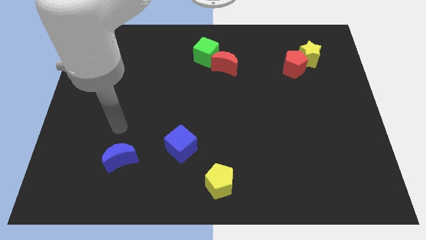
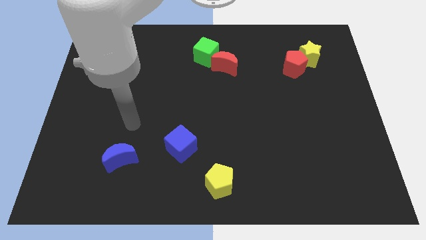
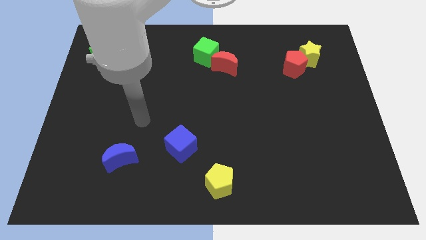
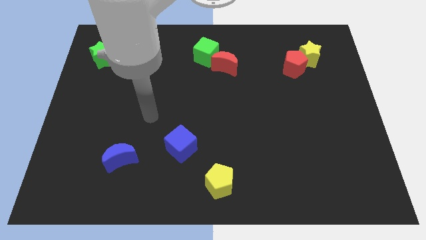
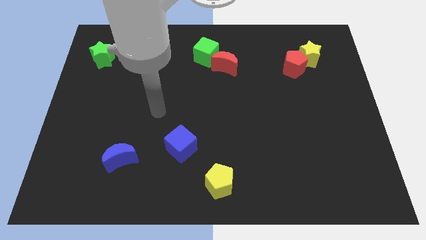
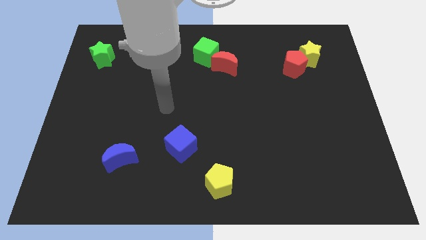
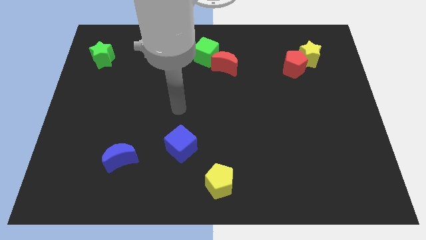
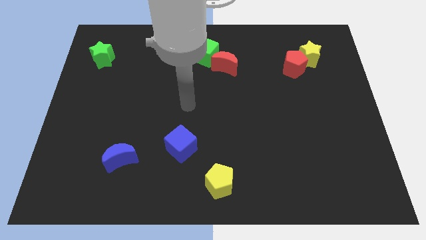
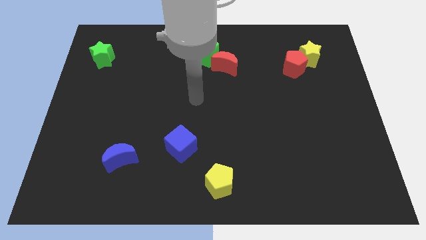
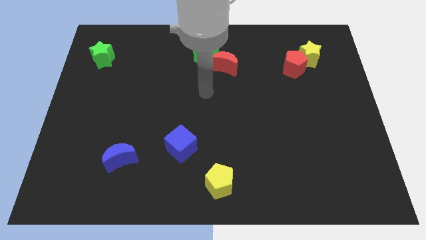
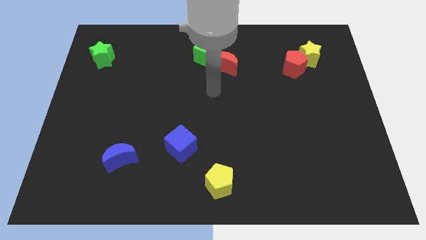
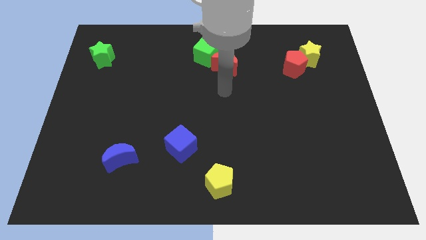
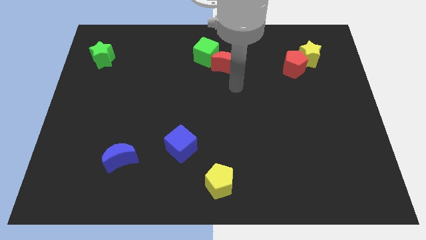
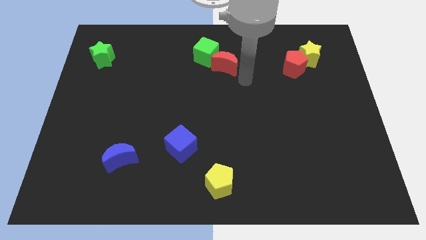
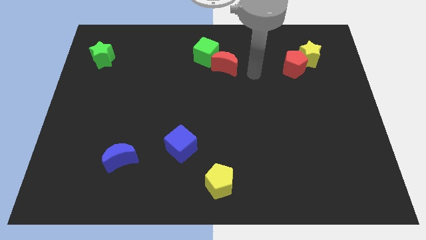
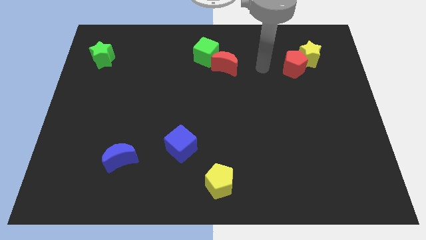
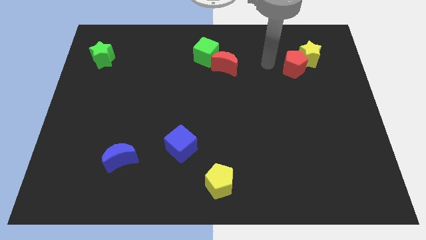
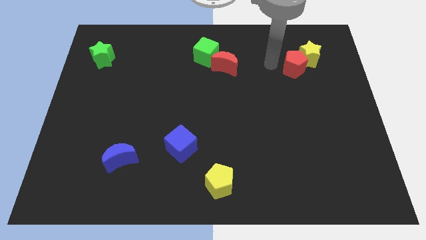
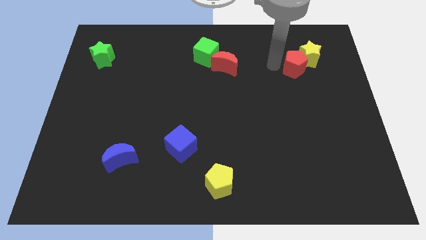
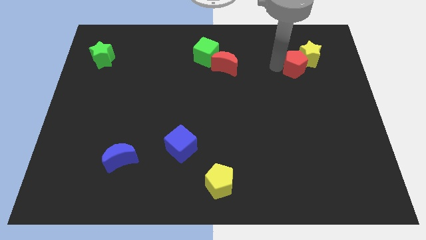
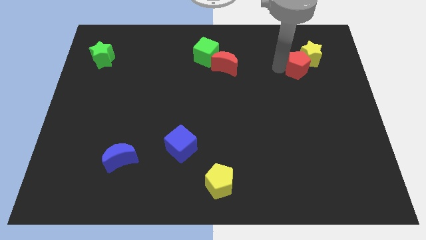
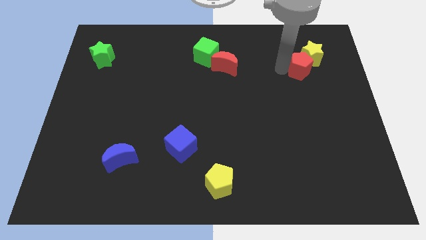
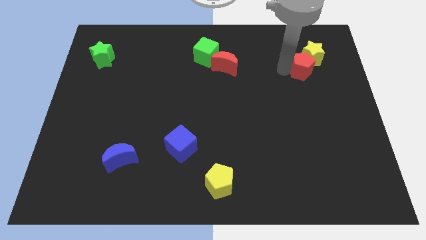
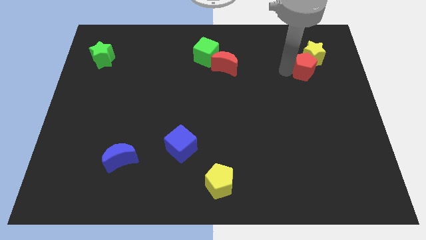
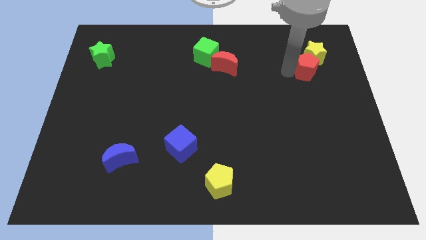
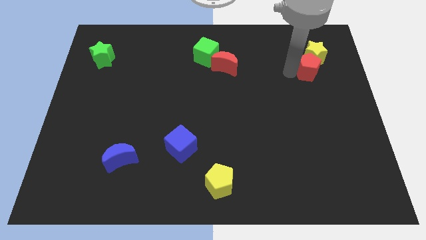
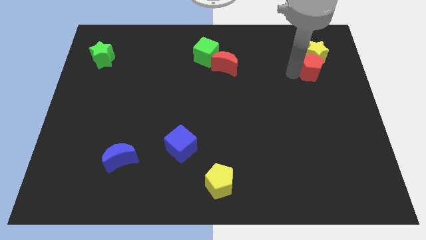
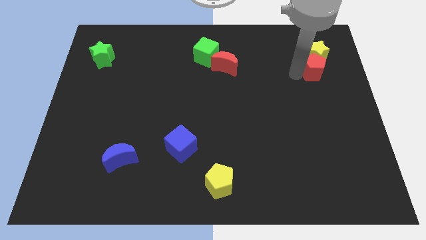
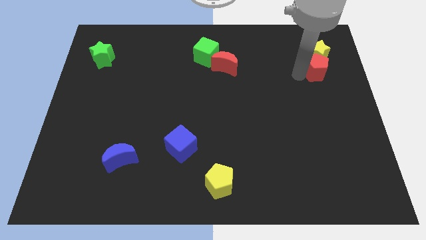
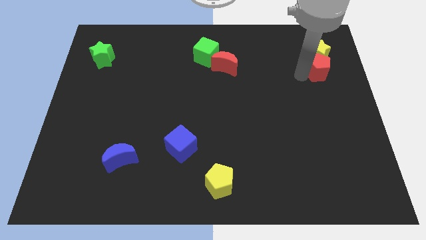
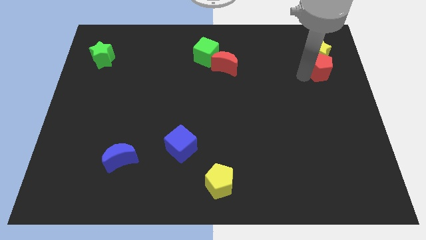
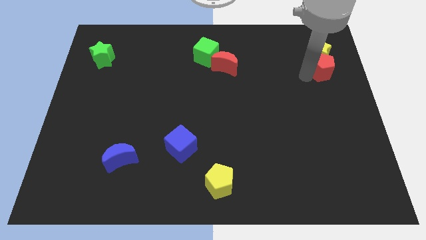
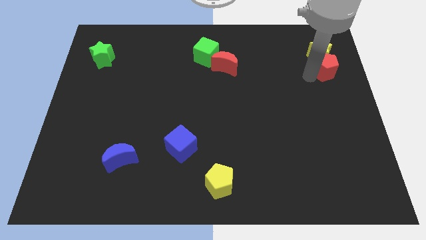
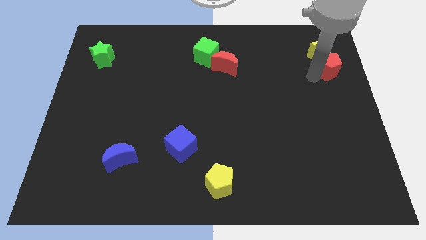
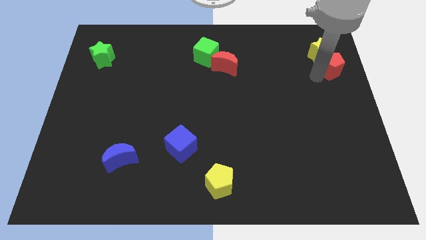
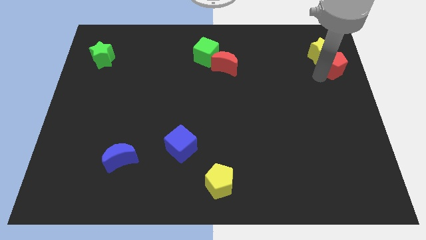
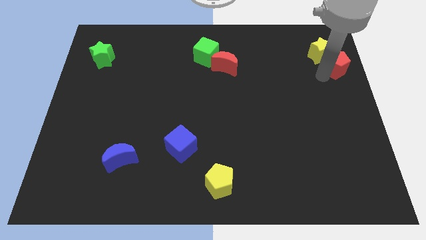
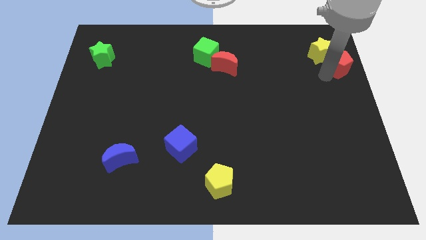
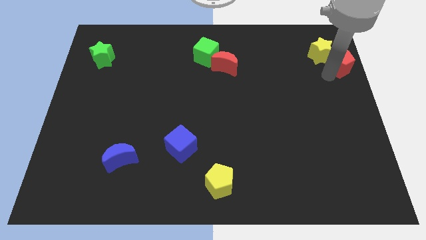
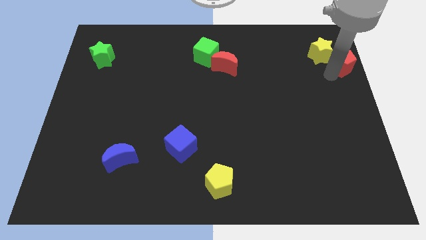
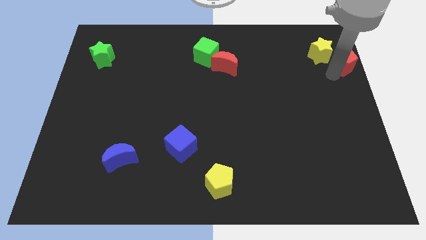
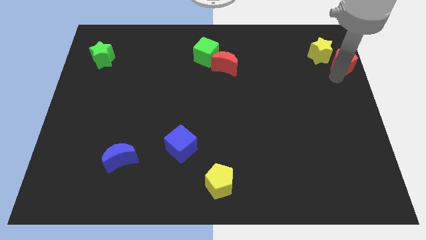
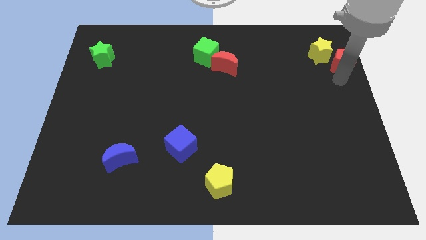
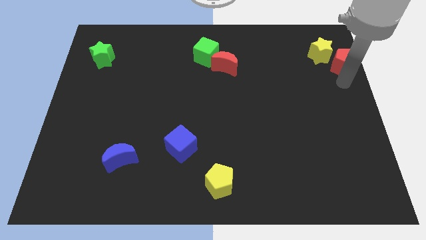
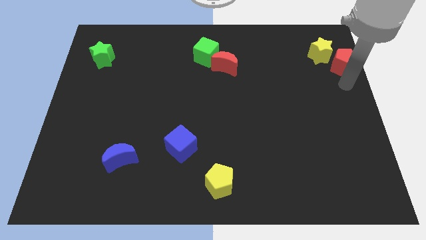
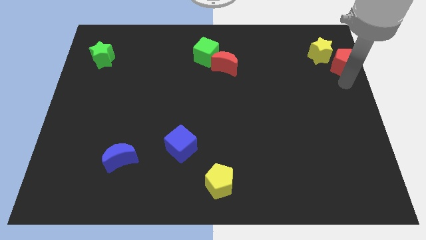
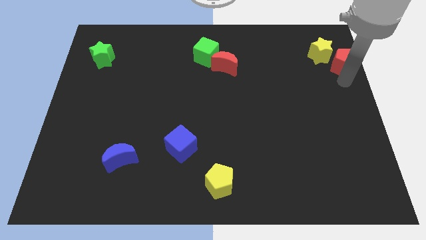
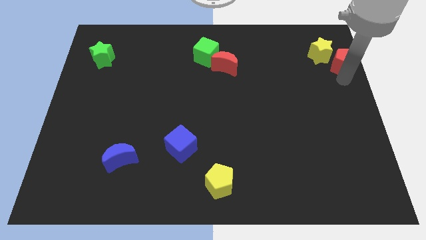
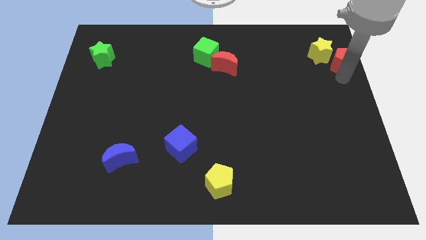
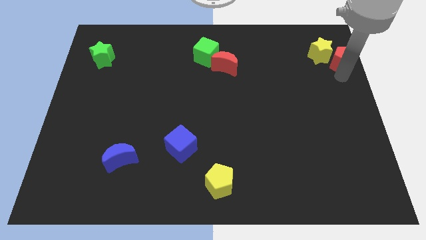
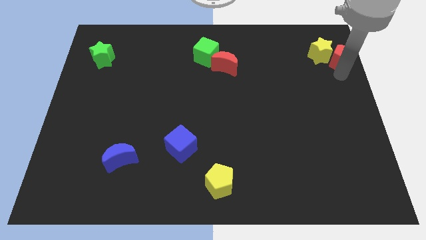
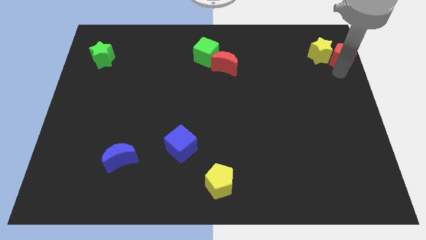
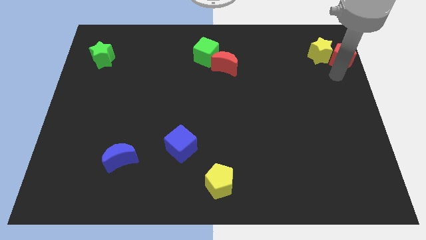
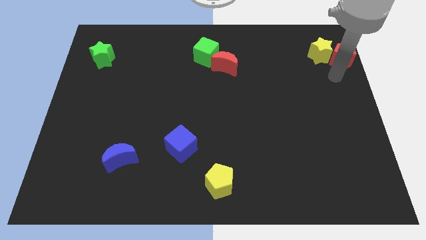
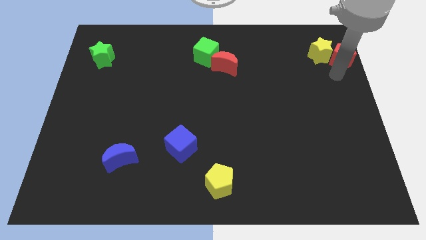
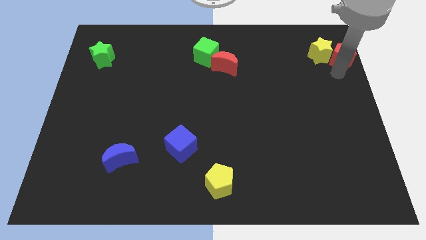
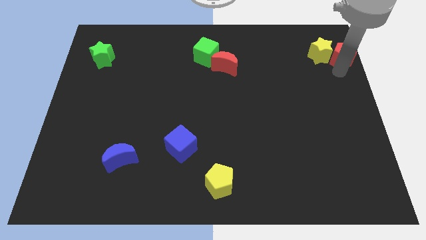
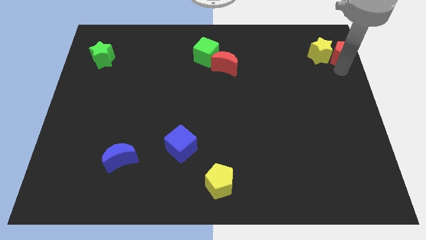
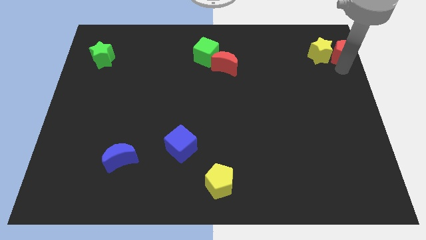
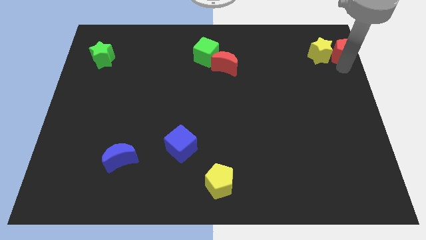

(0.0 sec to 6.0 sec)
put the red pentagon to the top right of the board

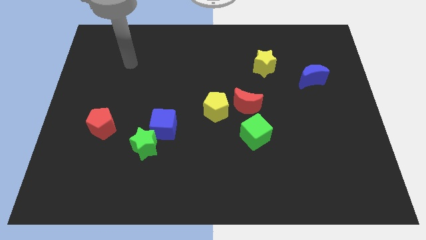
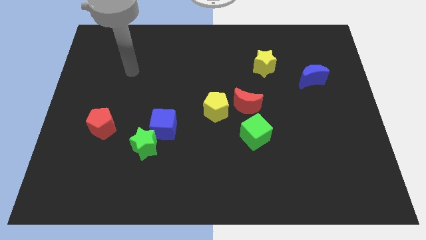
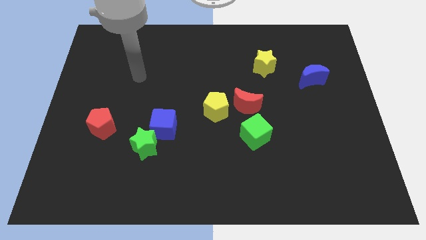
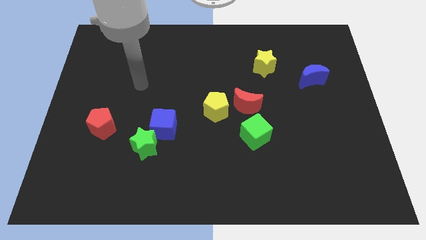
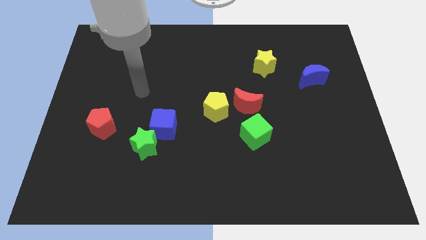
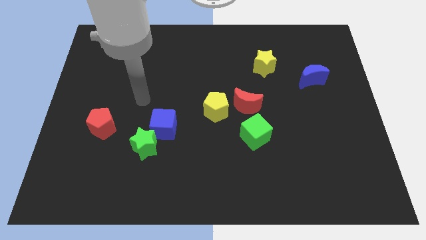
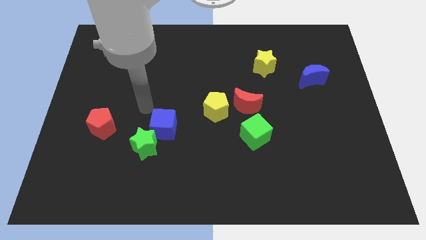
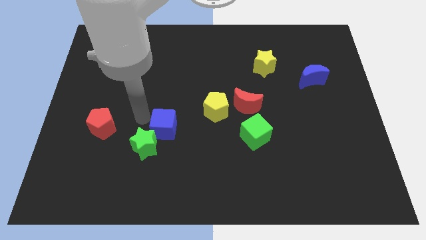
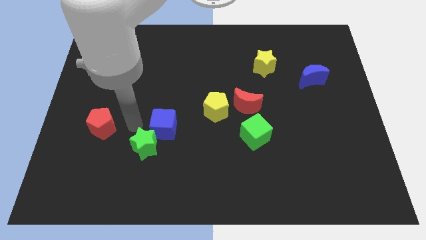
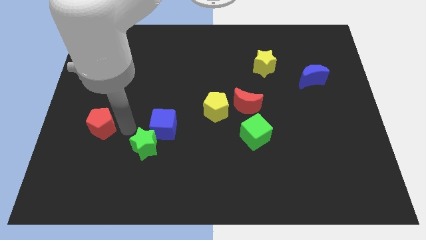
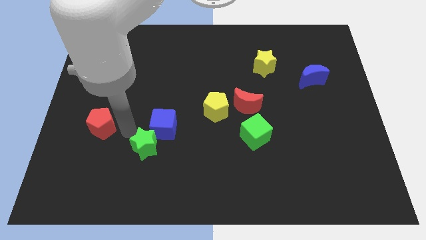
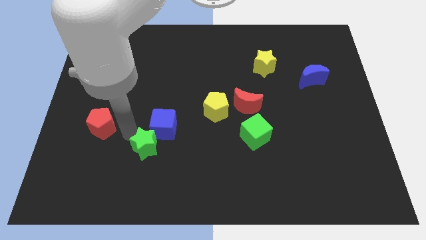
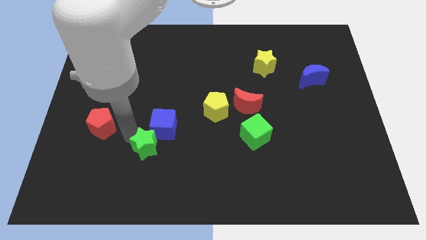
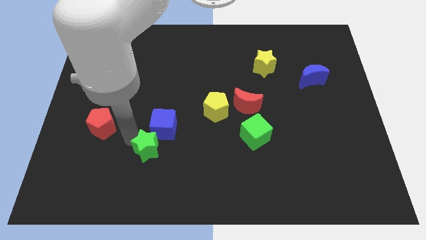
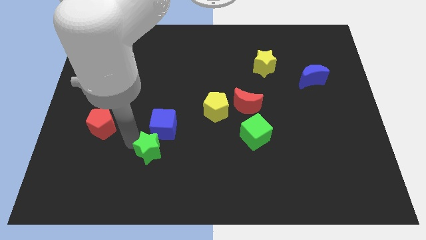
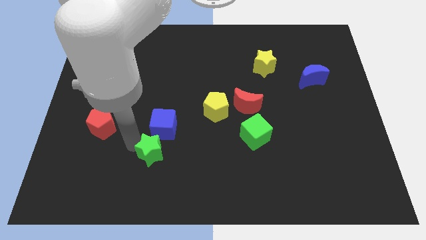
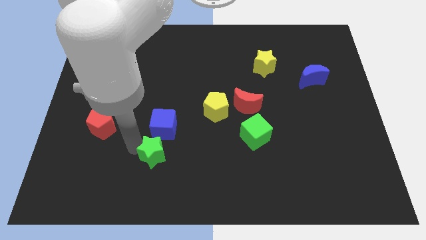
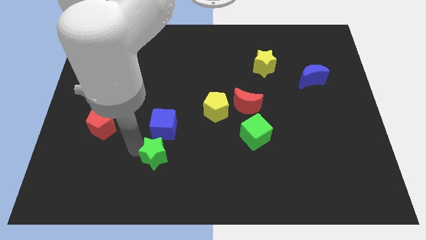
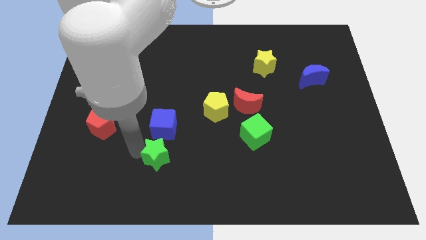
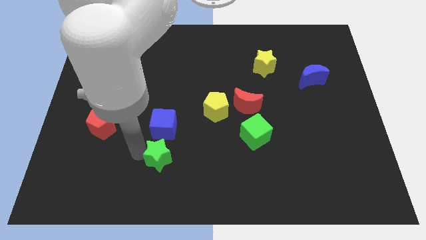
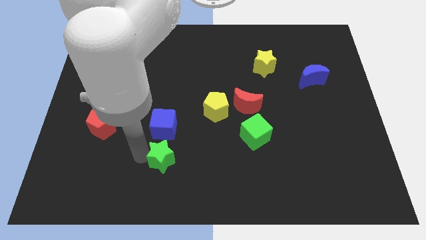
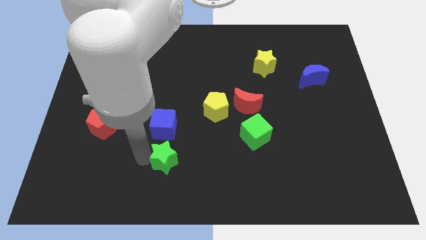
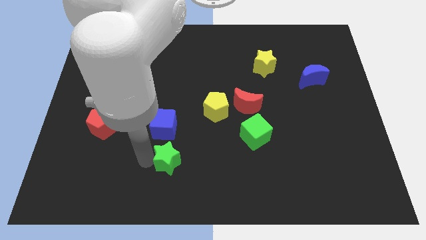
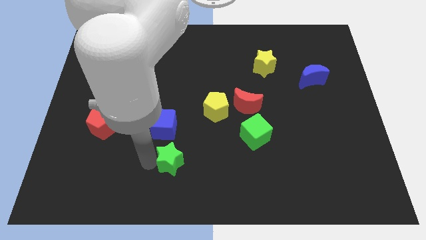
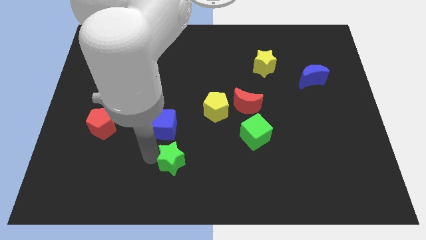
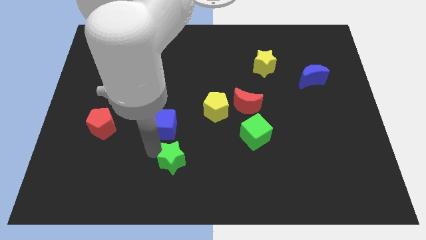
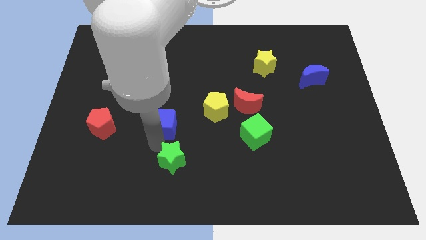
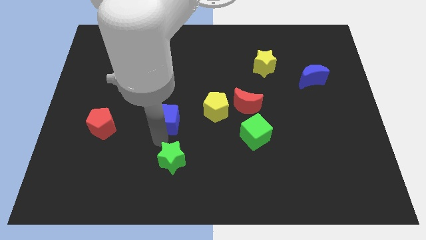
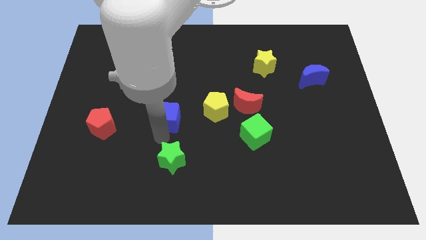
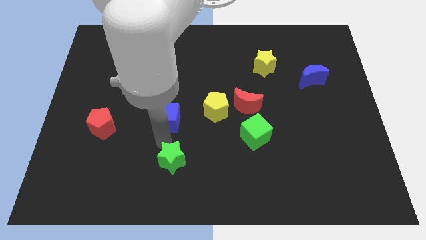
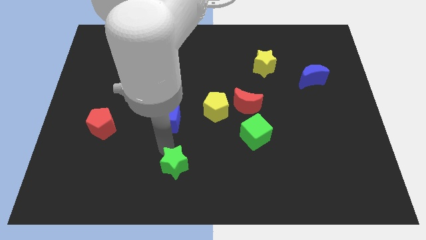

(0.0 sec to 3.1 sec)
push the green star to the bottom
